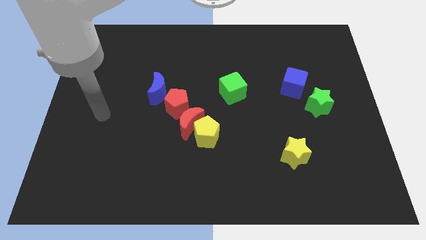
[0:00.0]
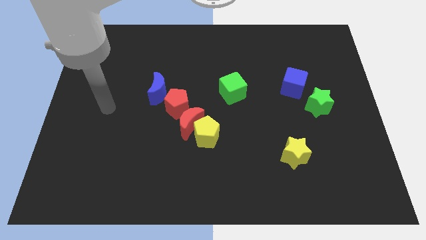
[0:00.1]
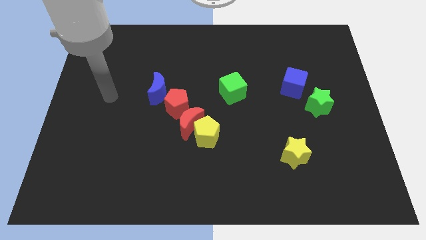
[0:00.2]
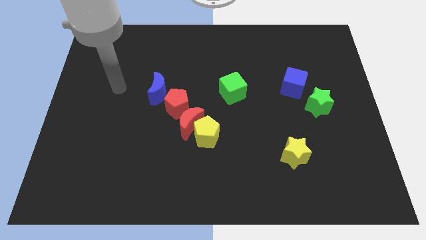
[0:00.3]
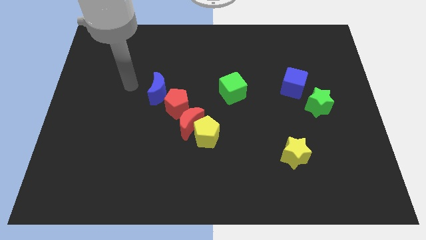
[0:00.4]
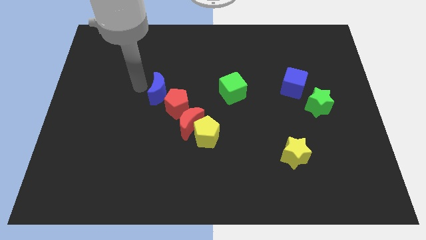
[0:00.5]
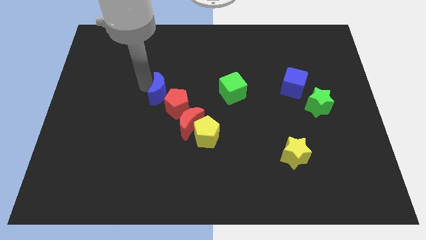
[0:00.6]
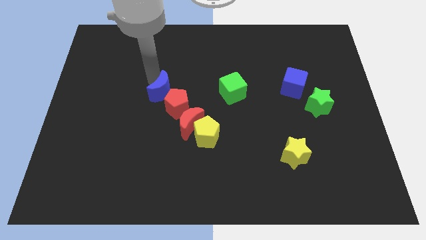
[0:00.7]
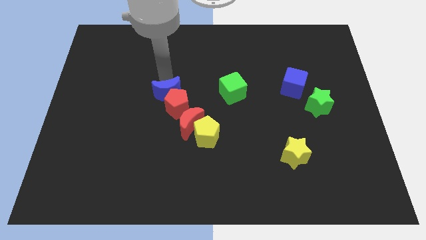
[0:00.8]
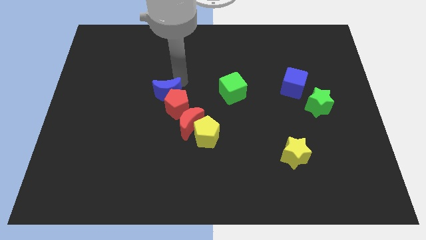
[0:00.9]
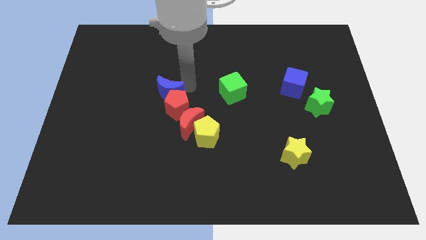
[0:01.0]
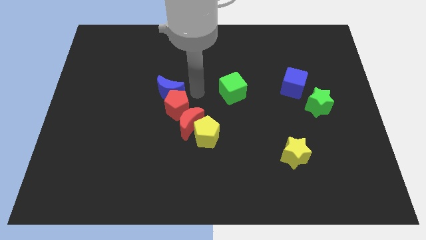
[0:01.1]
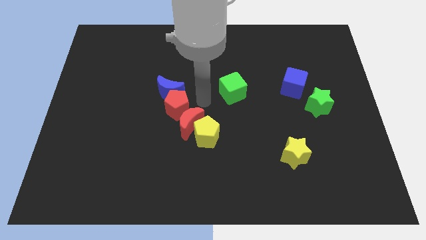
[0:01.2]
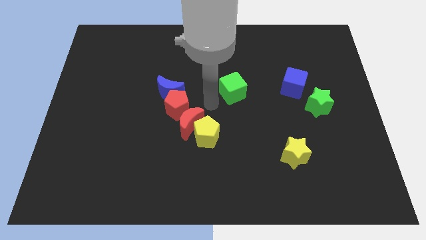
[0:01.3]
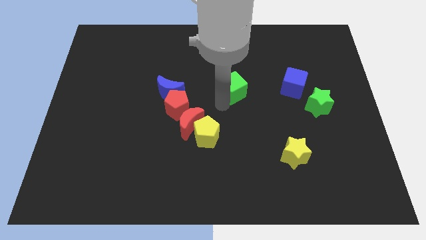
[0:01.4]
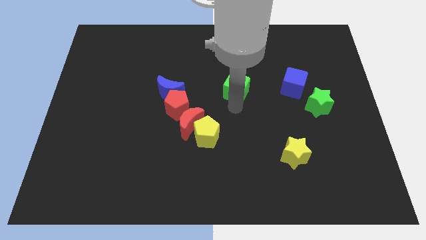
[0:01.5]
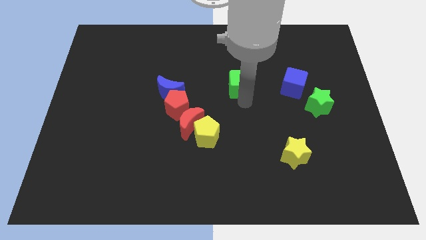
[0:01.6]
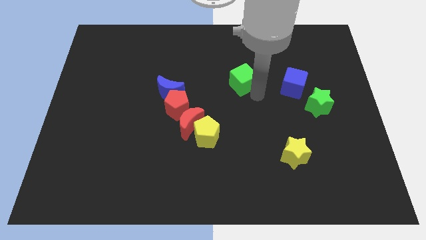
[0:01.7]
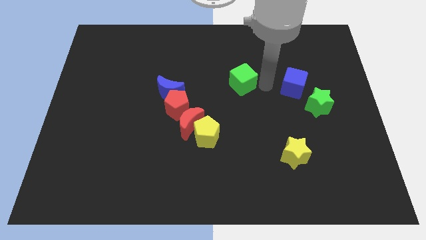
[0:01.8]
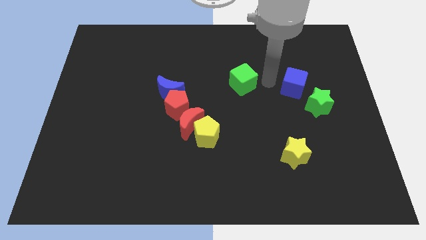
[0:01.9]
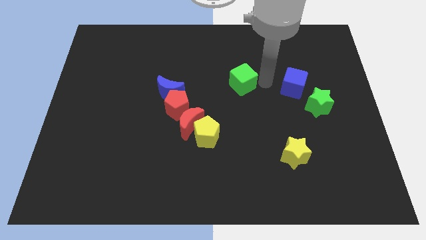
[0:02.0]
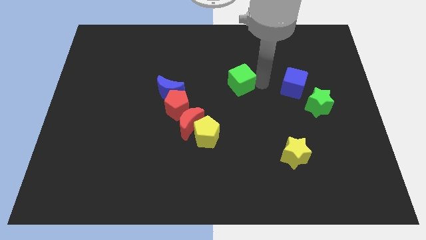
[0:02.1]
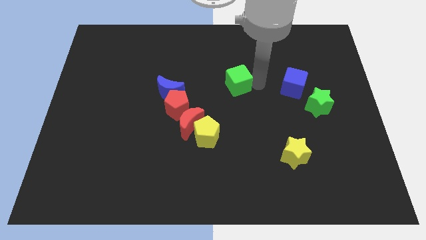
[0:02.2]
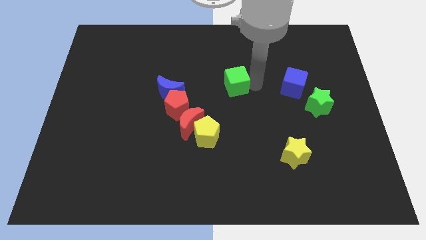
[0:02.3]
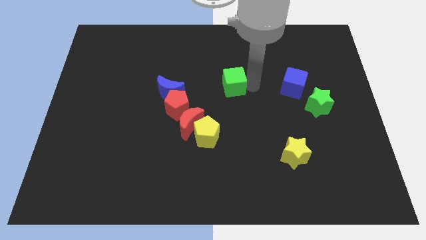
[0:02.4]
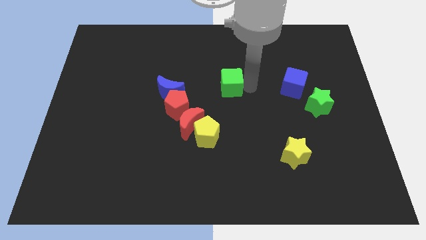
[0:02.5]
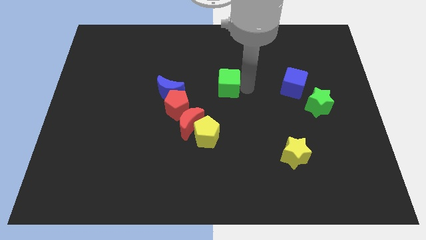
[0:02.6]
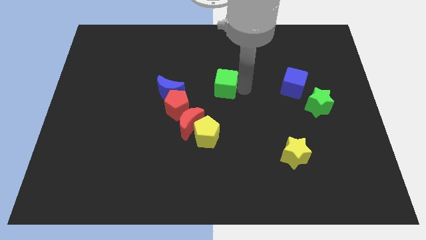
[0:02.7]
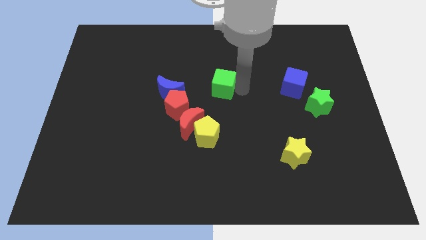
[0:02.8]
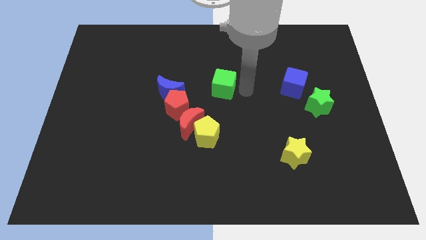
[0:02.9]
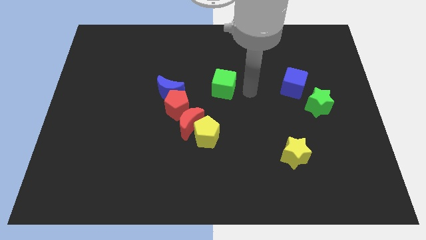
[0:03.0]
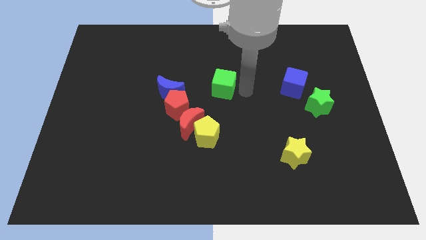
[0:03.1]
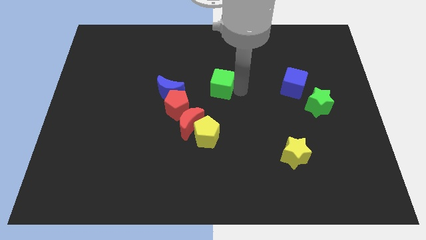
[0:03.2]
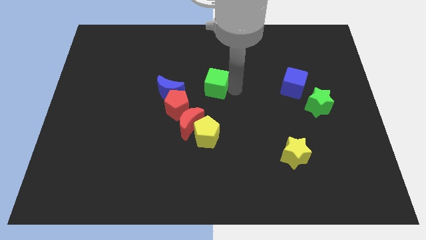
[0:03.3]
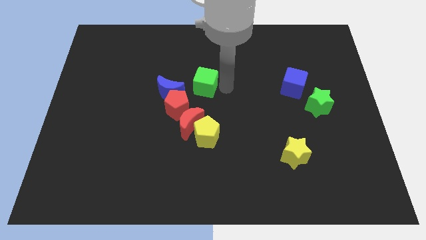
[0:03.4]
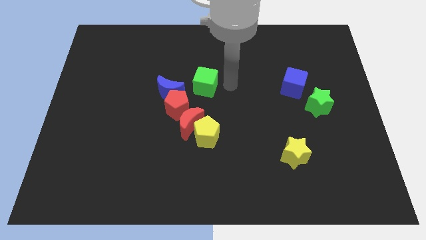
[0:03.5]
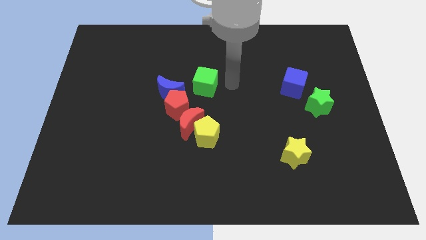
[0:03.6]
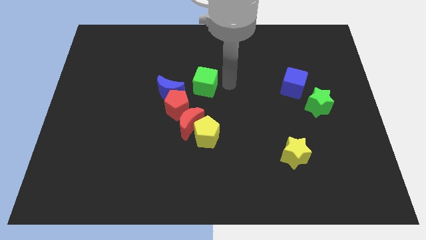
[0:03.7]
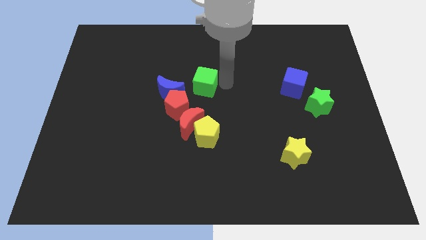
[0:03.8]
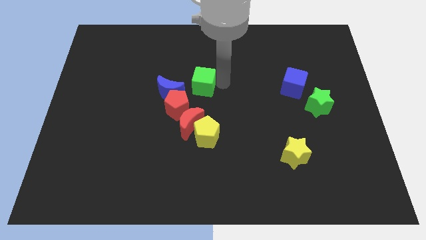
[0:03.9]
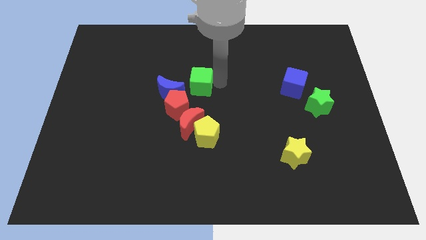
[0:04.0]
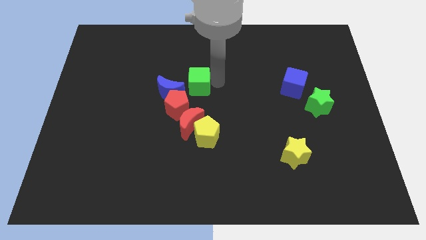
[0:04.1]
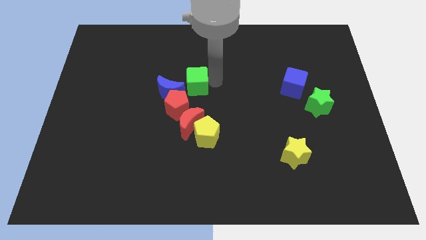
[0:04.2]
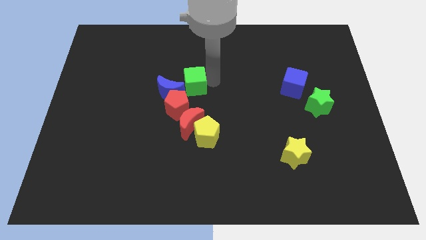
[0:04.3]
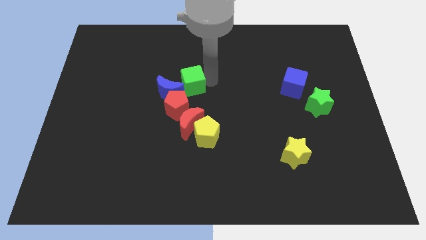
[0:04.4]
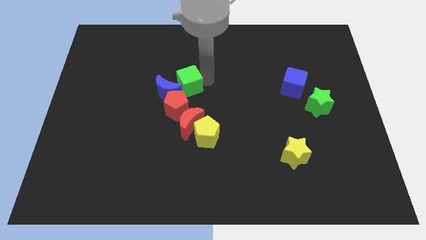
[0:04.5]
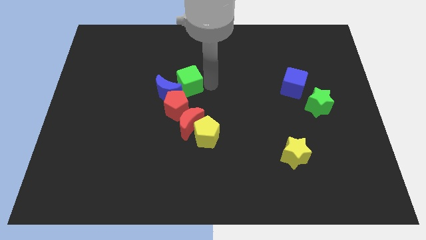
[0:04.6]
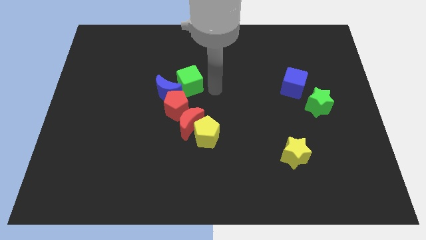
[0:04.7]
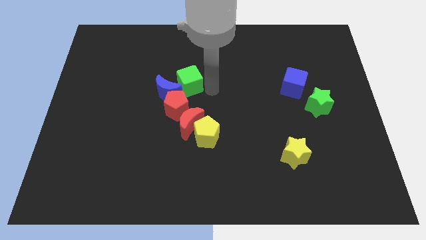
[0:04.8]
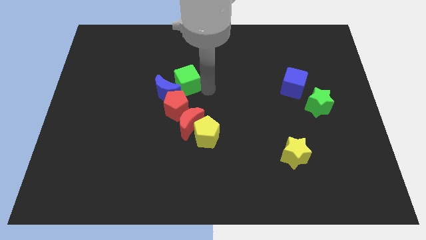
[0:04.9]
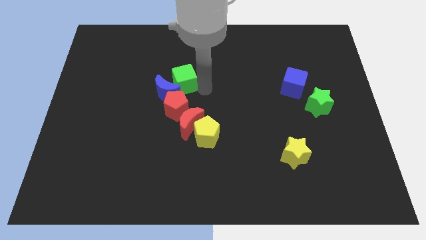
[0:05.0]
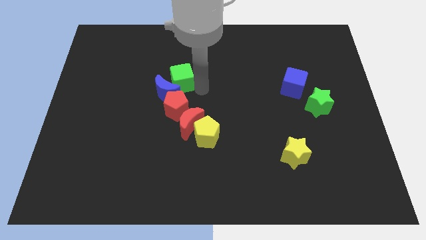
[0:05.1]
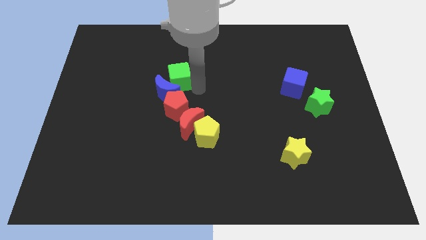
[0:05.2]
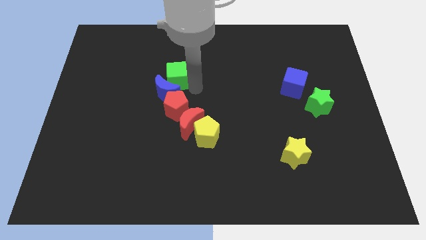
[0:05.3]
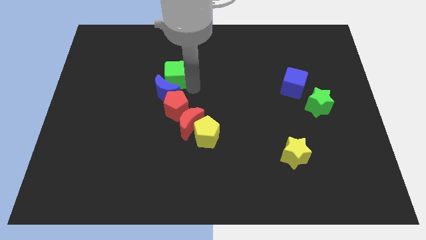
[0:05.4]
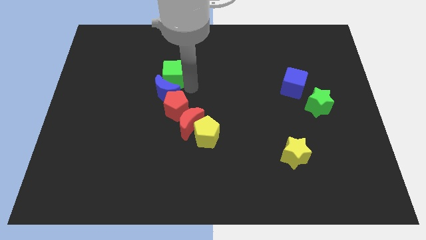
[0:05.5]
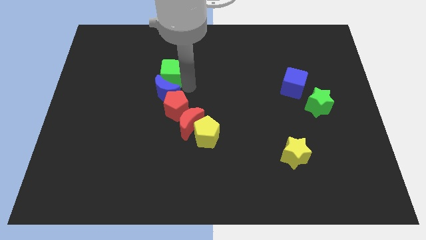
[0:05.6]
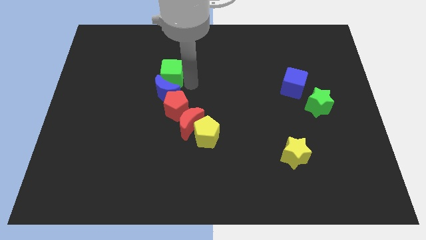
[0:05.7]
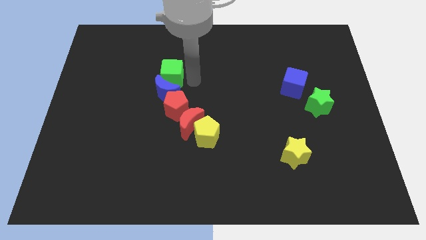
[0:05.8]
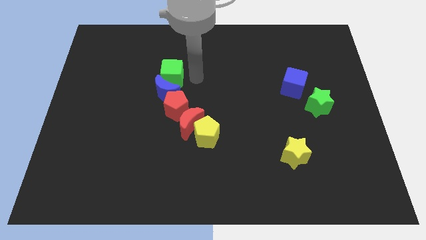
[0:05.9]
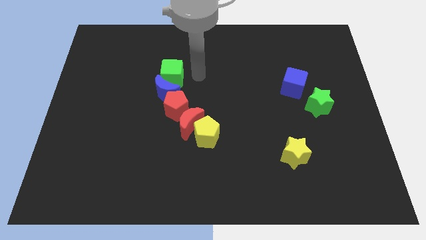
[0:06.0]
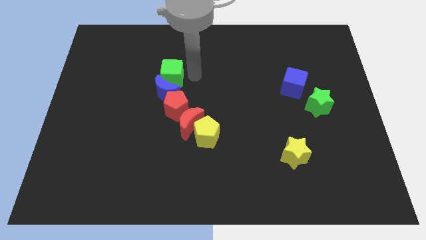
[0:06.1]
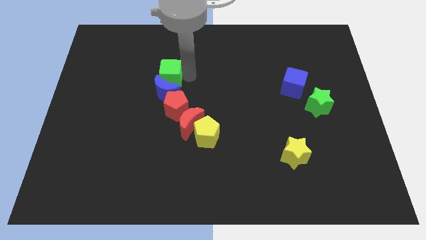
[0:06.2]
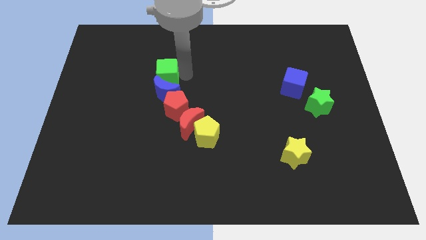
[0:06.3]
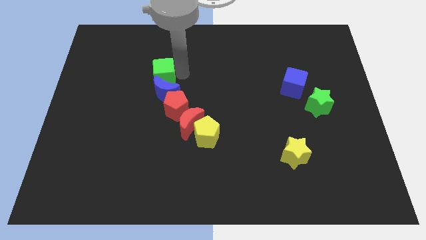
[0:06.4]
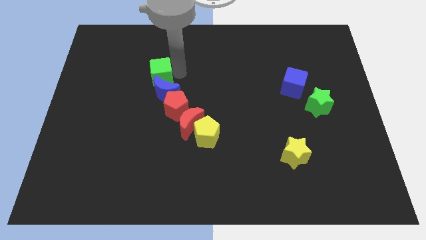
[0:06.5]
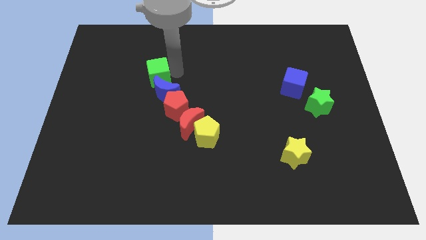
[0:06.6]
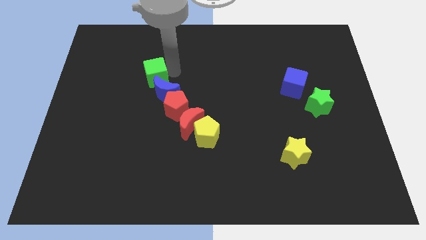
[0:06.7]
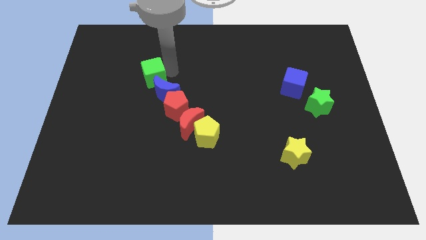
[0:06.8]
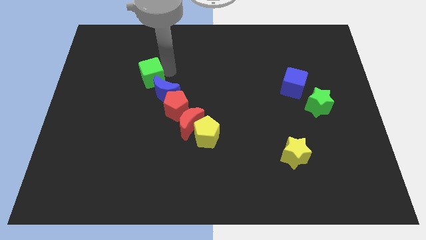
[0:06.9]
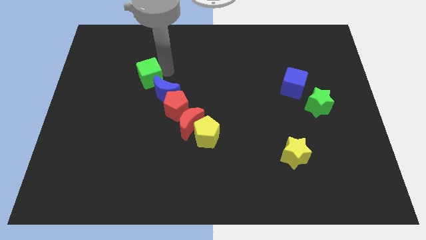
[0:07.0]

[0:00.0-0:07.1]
push the green cube to the left

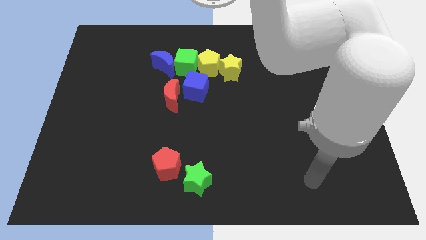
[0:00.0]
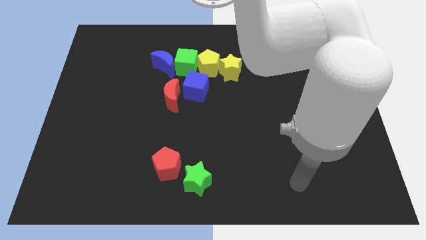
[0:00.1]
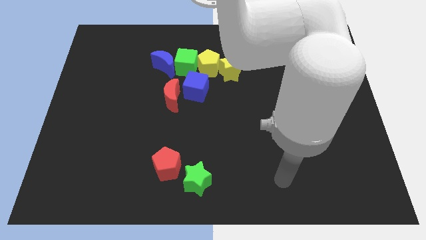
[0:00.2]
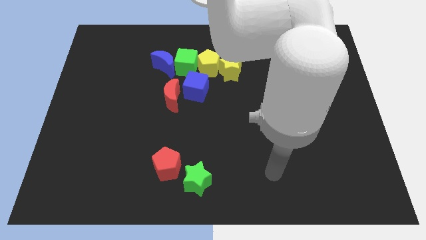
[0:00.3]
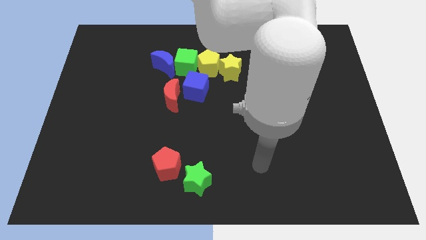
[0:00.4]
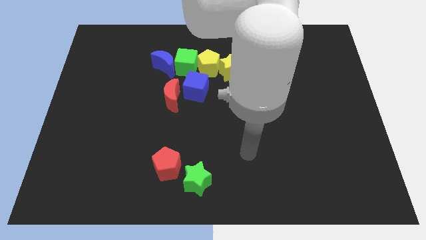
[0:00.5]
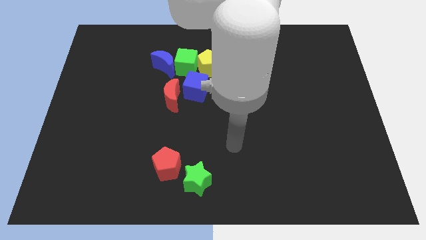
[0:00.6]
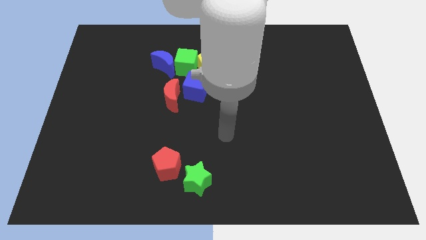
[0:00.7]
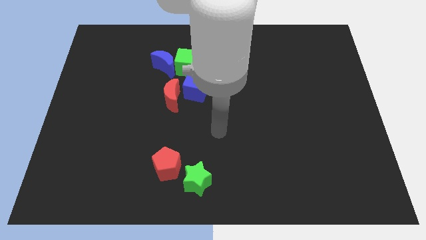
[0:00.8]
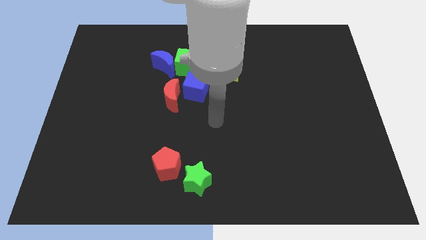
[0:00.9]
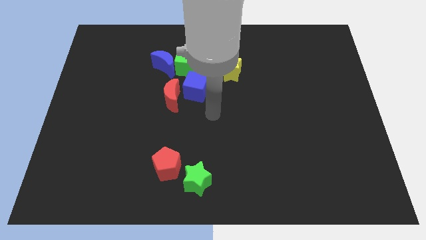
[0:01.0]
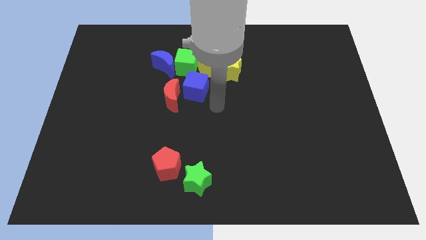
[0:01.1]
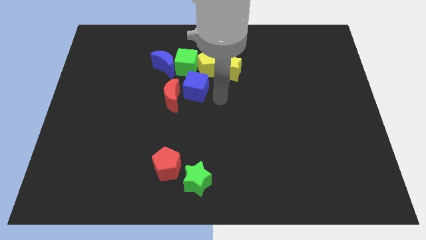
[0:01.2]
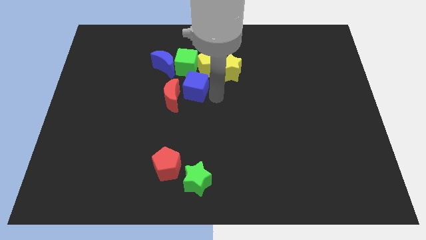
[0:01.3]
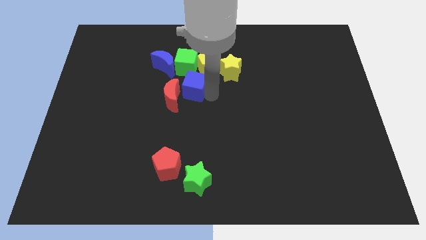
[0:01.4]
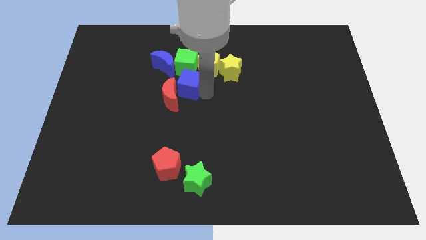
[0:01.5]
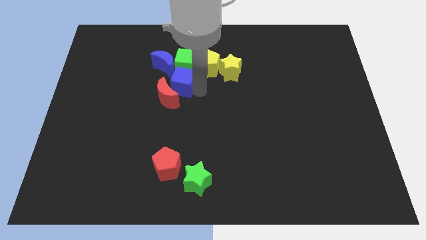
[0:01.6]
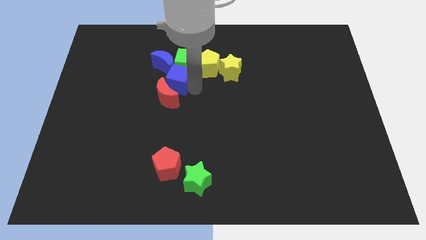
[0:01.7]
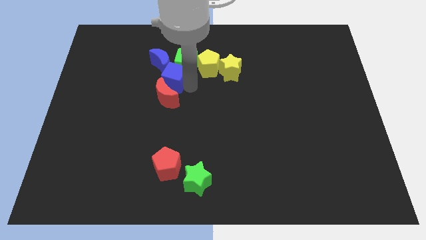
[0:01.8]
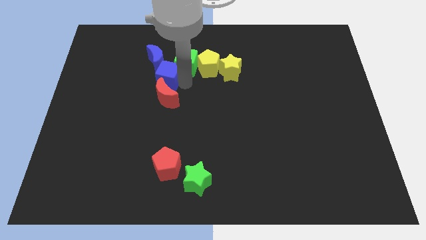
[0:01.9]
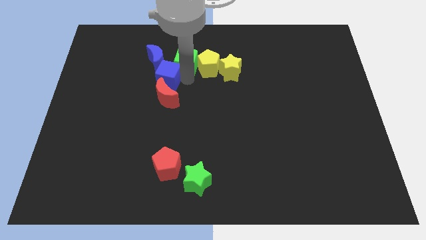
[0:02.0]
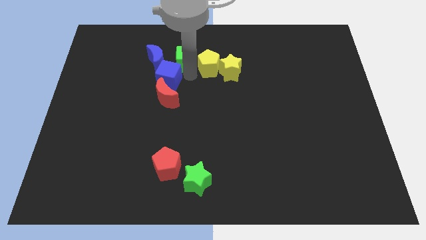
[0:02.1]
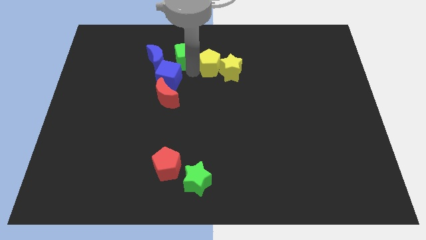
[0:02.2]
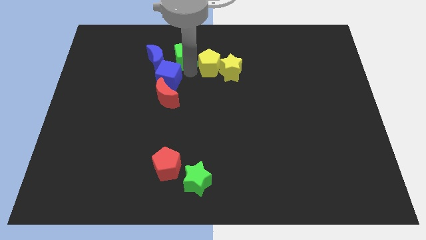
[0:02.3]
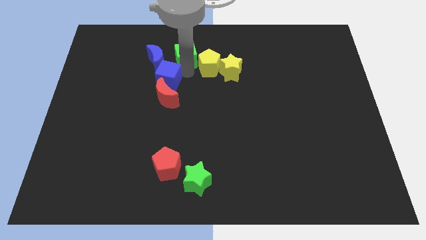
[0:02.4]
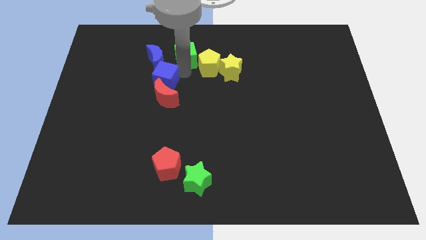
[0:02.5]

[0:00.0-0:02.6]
slightly push the blue cube to the left
